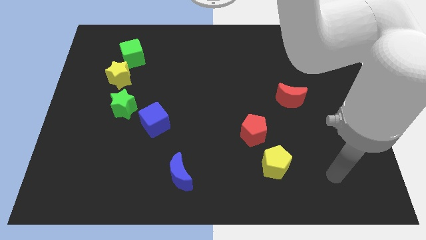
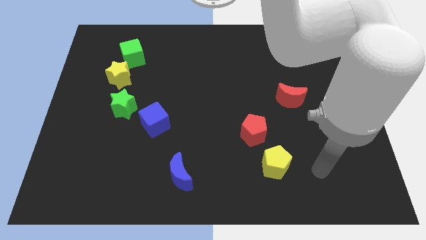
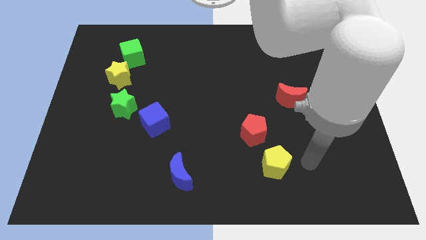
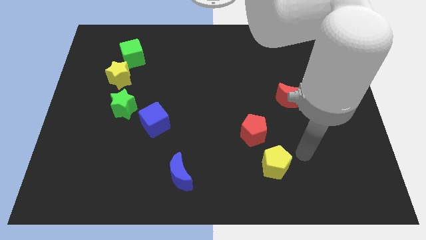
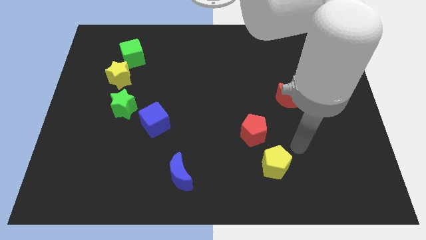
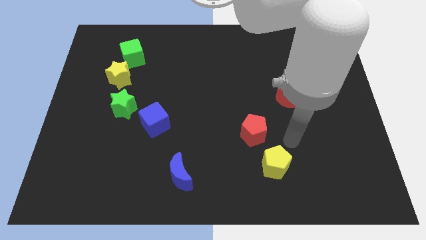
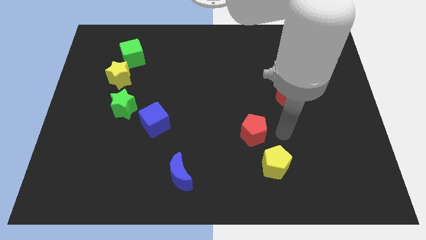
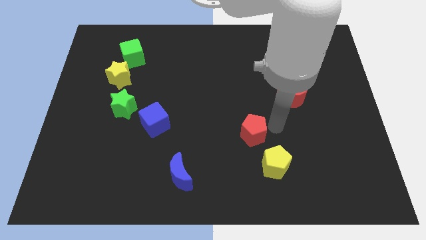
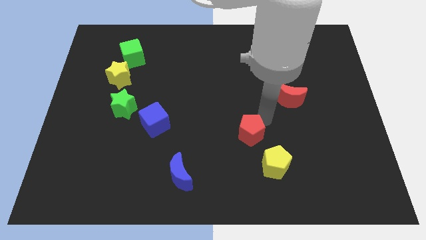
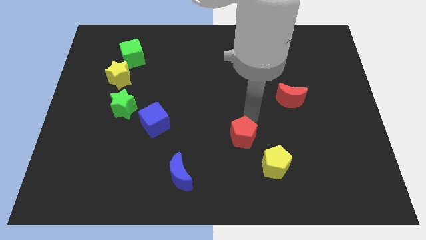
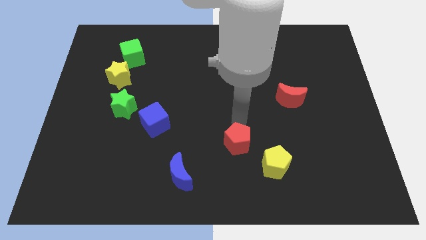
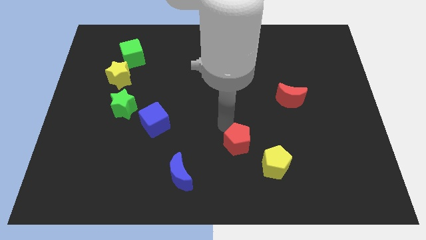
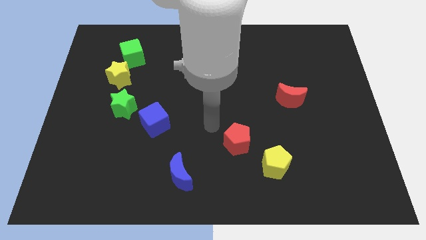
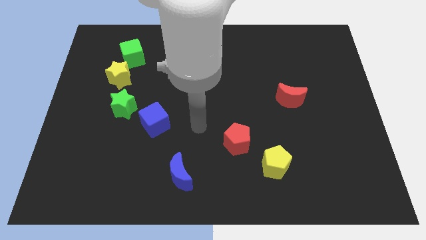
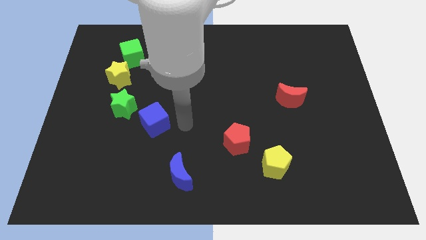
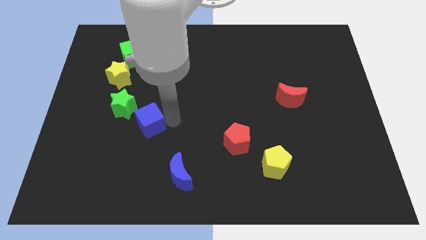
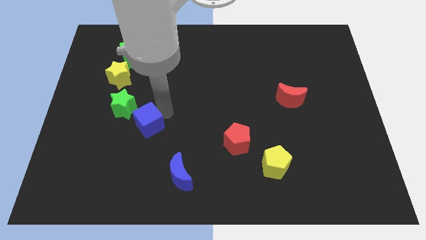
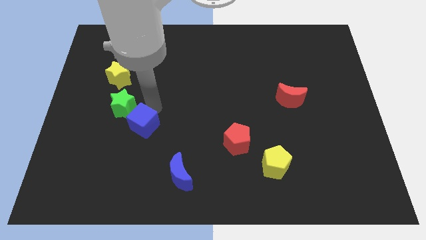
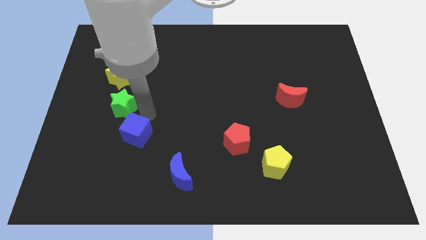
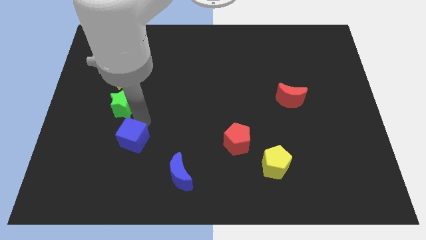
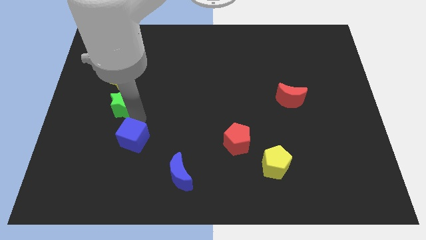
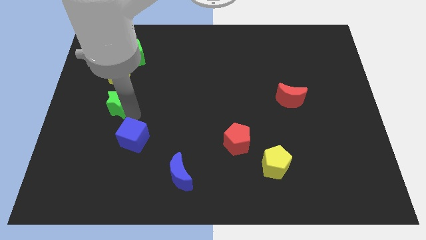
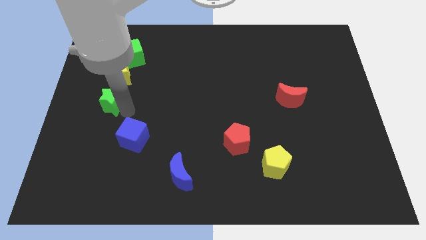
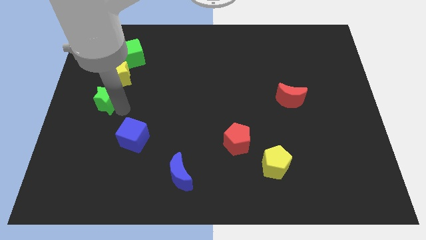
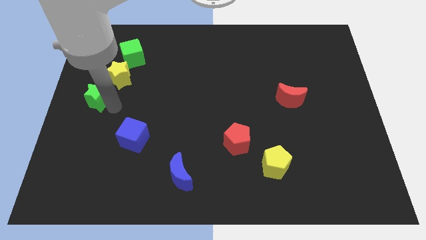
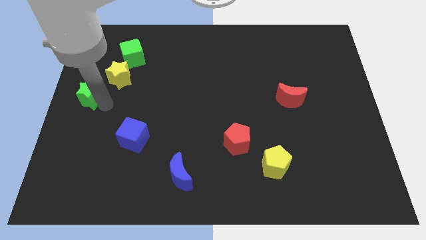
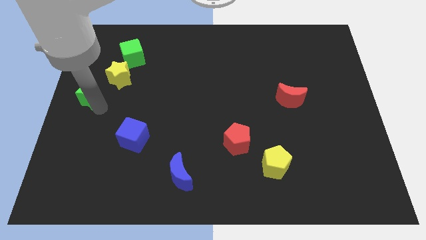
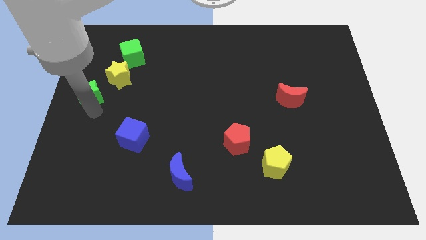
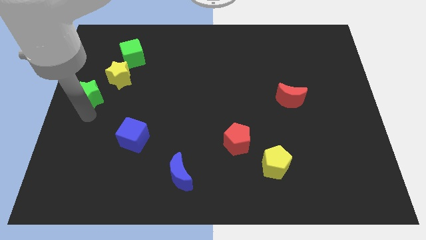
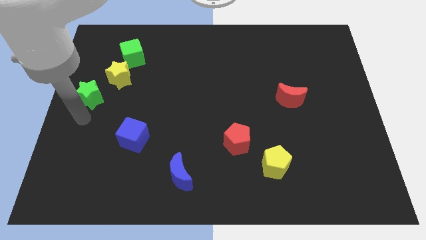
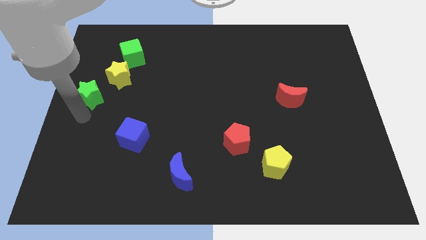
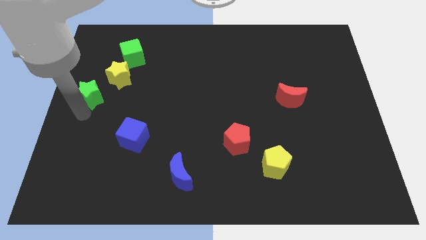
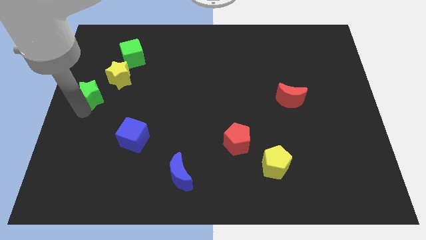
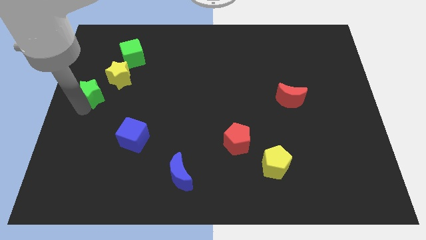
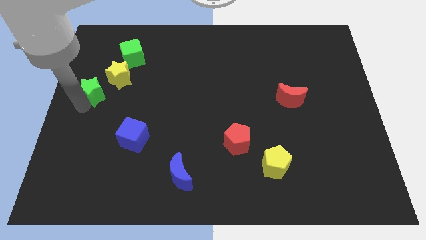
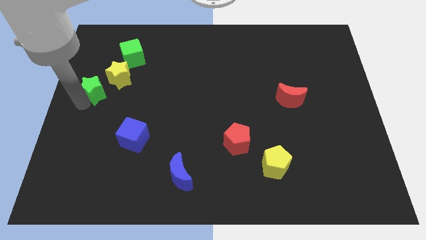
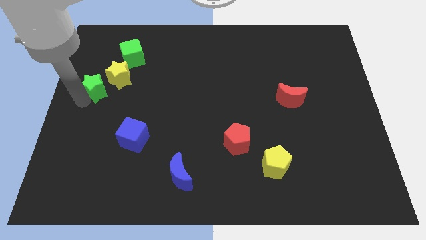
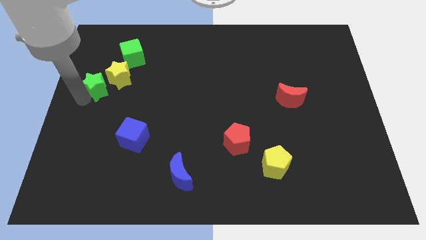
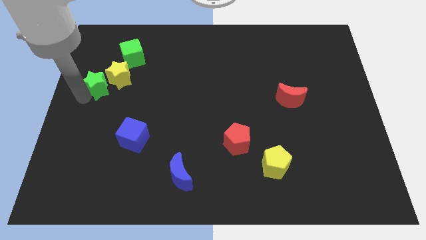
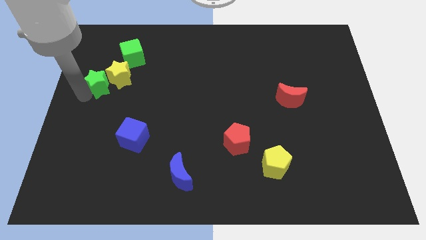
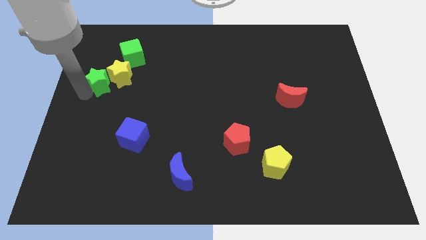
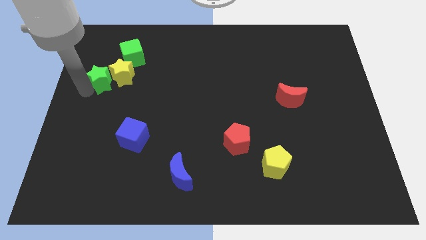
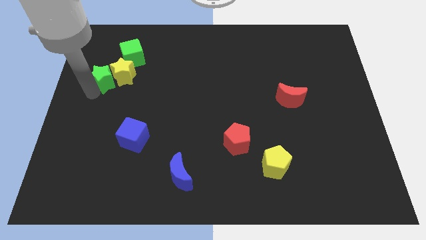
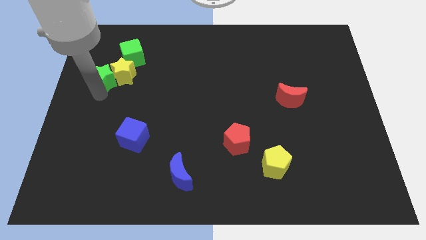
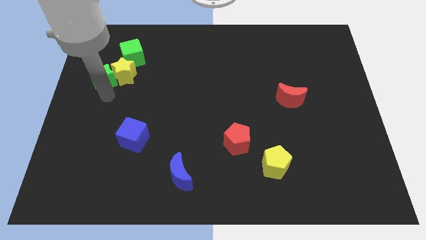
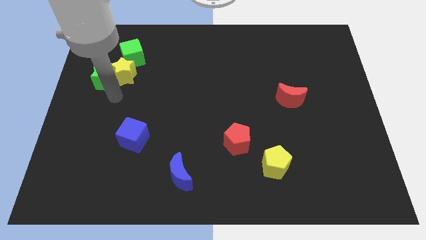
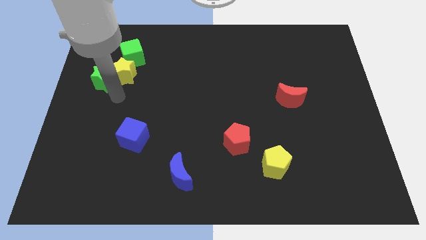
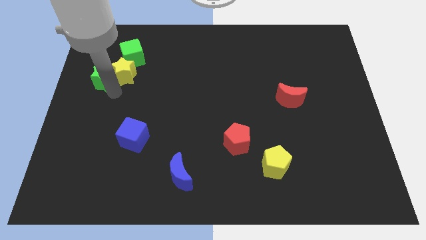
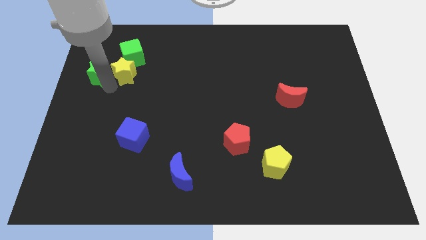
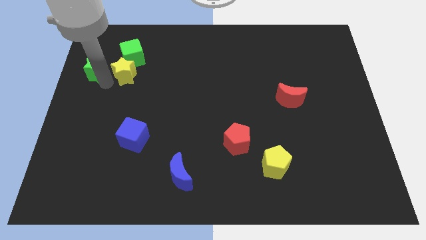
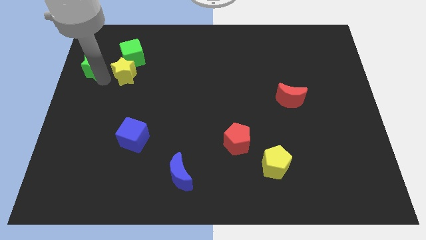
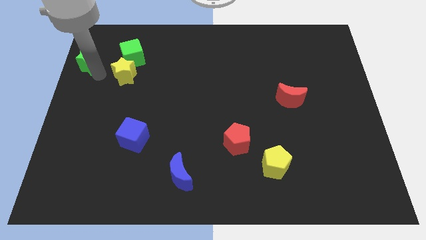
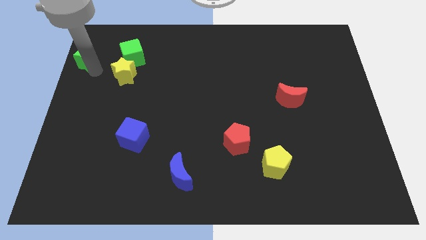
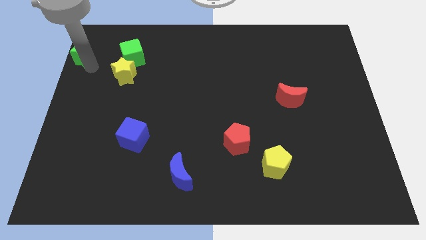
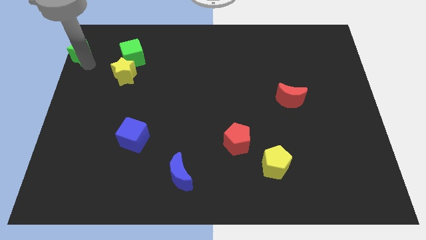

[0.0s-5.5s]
slide the green star to the top left corner

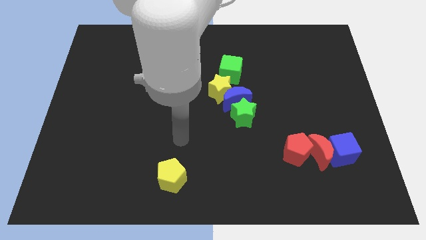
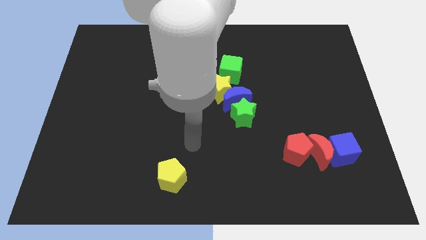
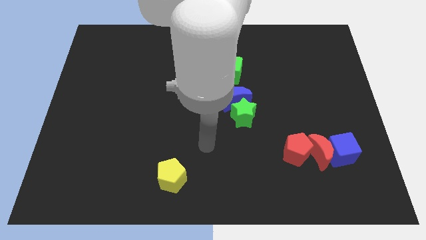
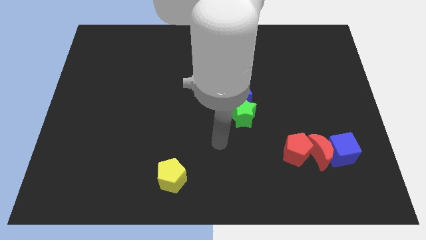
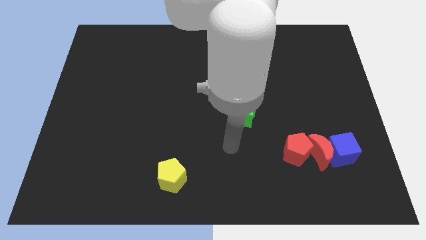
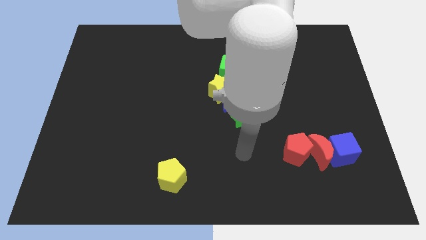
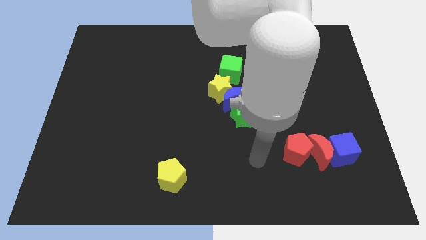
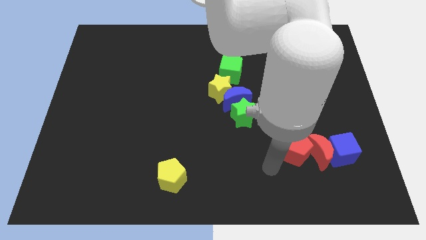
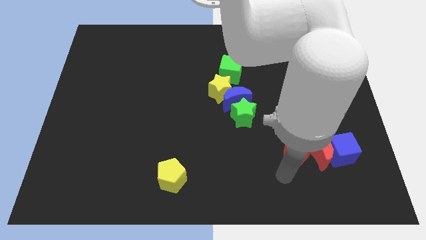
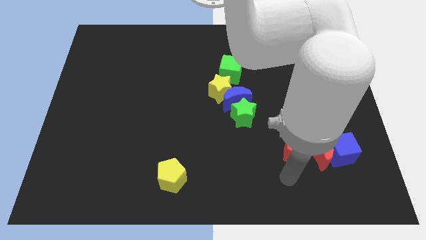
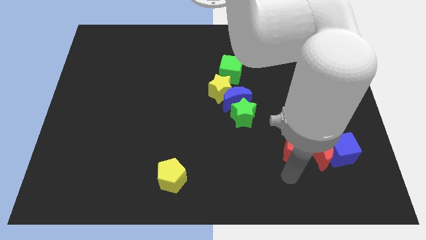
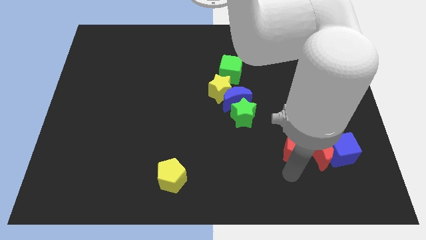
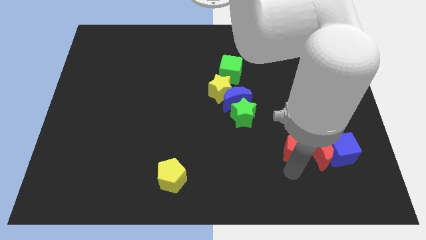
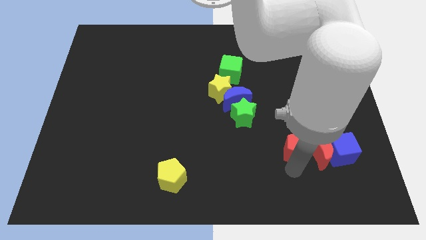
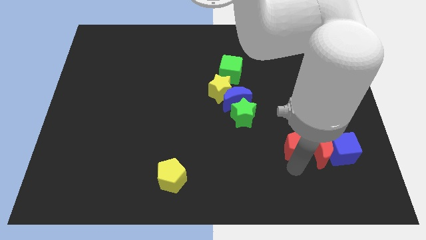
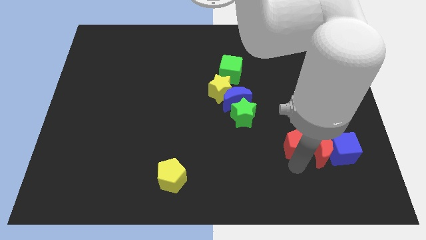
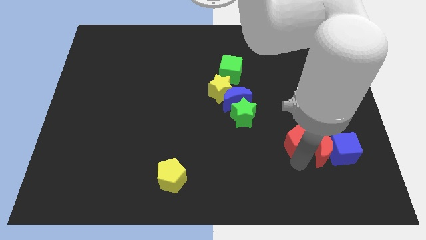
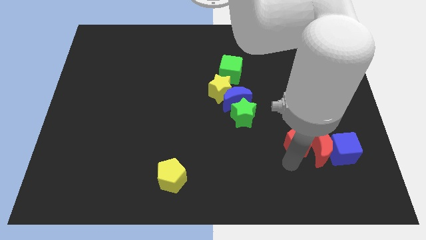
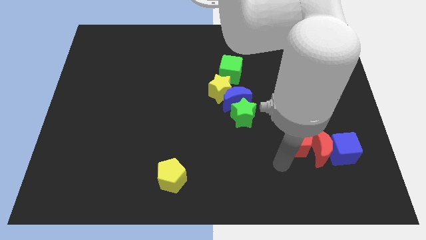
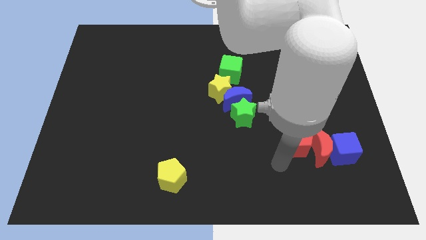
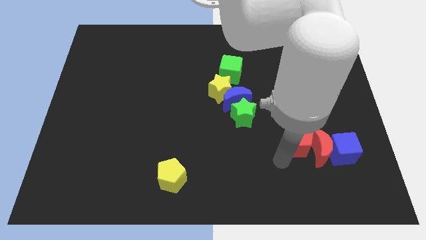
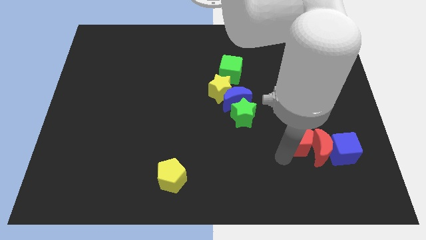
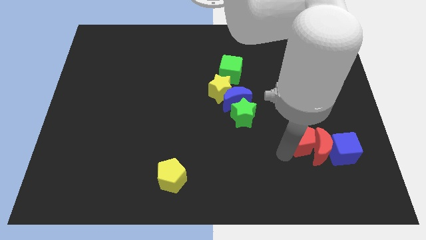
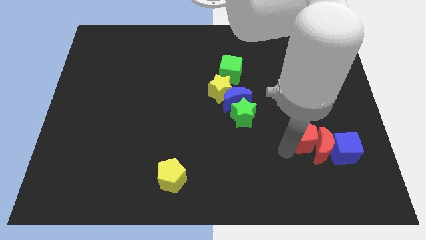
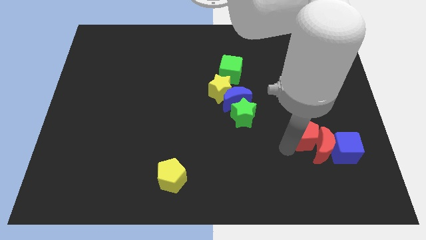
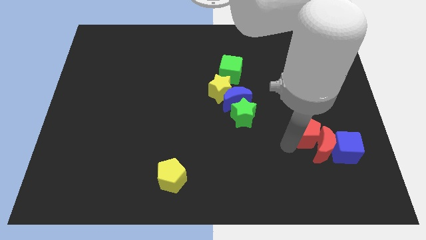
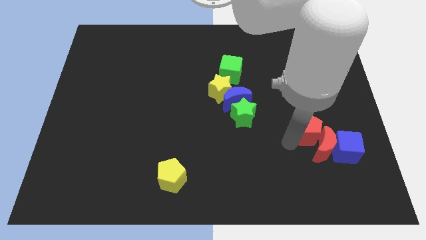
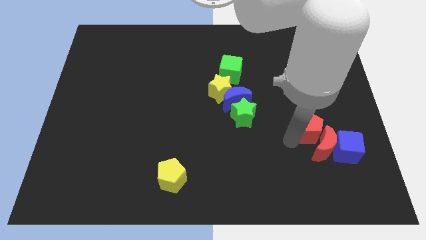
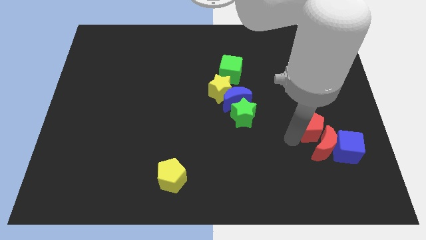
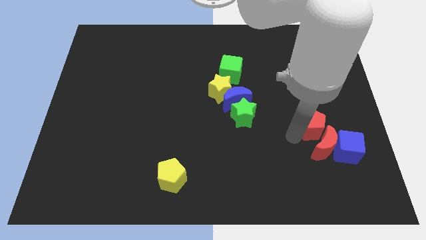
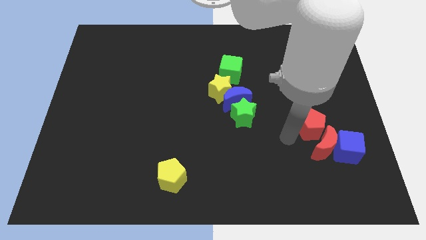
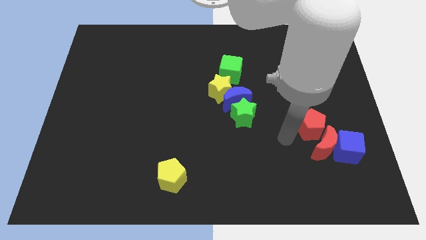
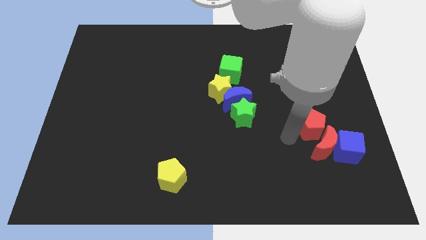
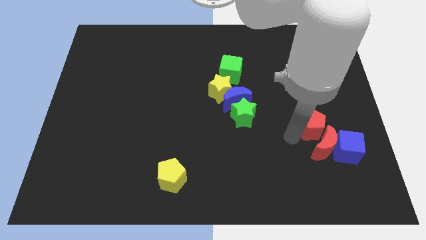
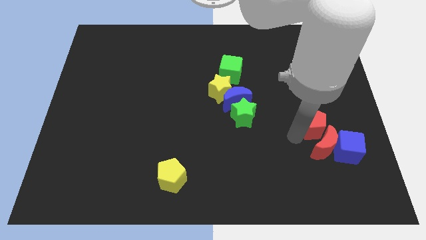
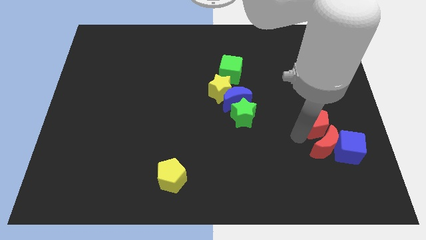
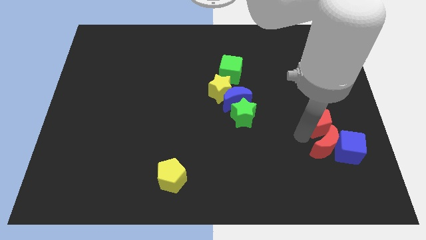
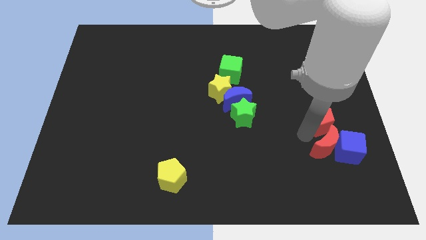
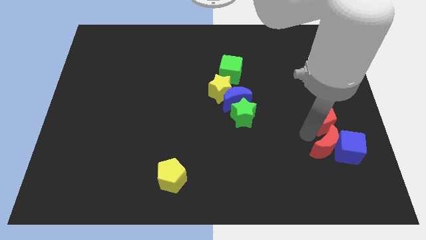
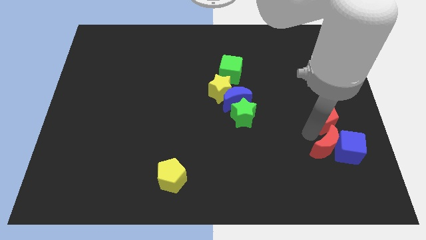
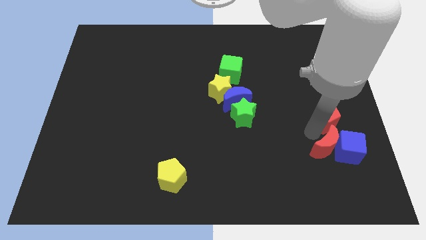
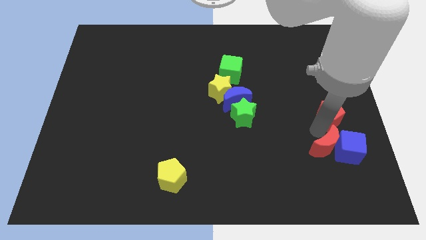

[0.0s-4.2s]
slide the red pentagon to the right side of the board
